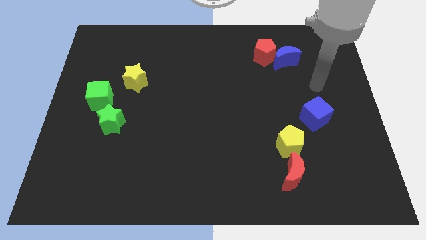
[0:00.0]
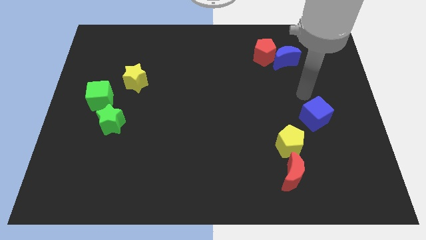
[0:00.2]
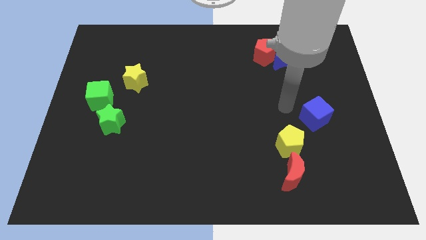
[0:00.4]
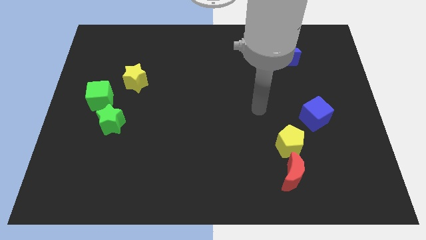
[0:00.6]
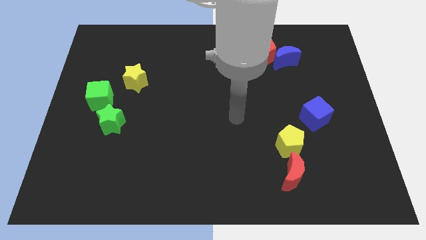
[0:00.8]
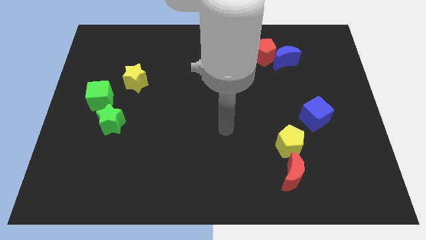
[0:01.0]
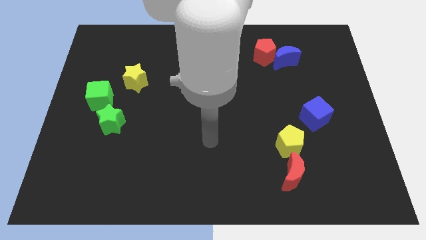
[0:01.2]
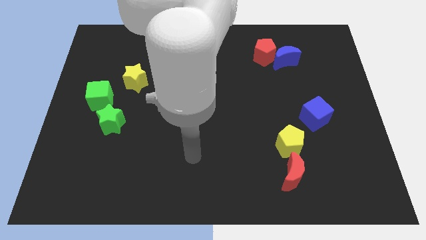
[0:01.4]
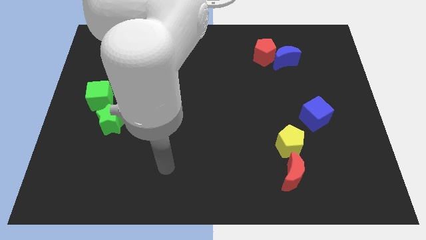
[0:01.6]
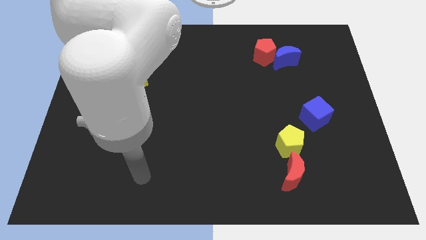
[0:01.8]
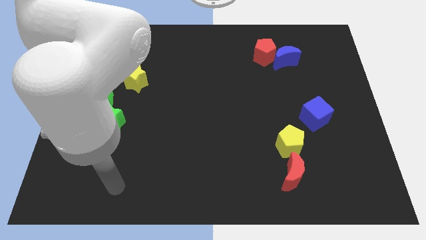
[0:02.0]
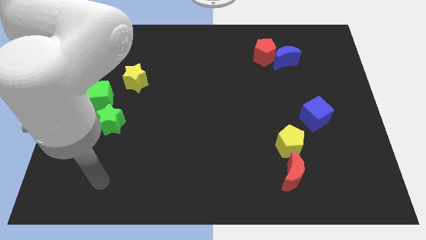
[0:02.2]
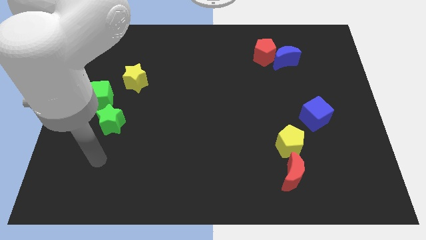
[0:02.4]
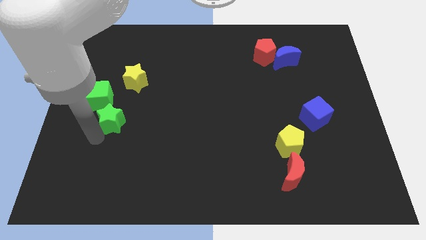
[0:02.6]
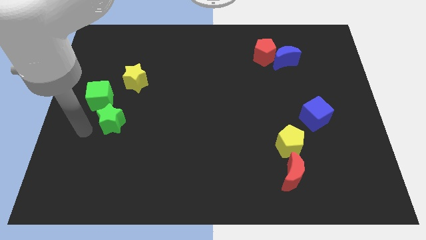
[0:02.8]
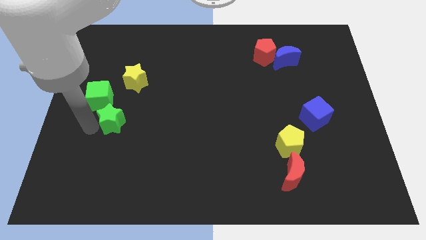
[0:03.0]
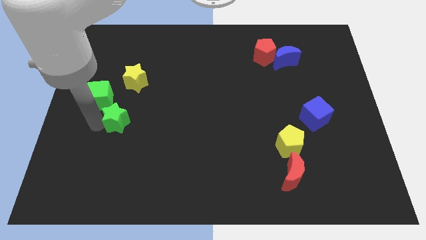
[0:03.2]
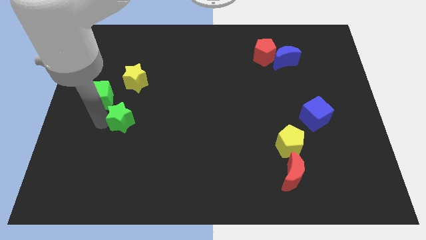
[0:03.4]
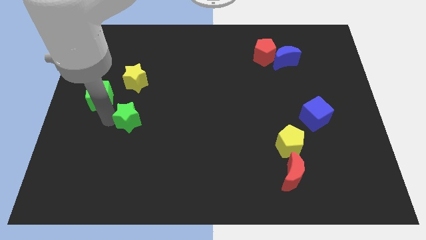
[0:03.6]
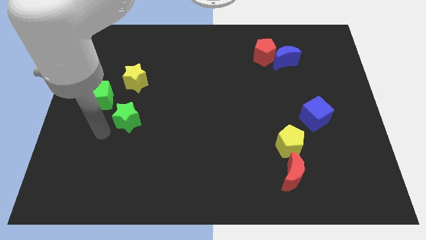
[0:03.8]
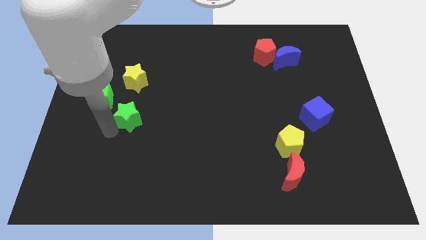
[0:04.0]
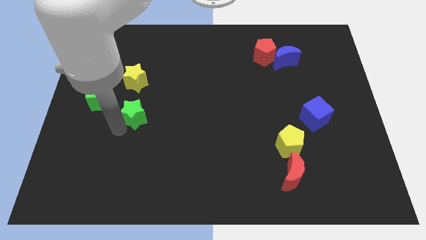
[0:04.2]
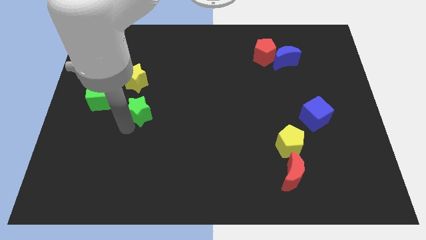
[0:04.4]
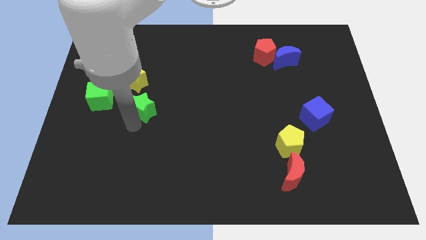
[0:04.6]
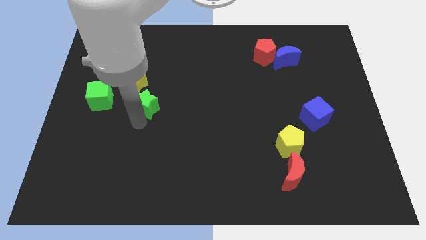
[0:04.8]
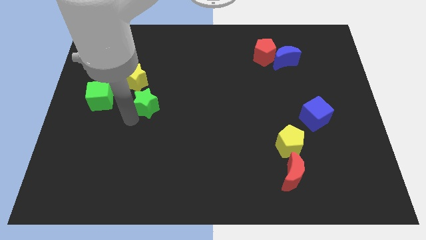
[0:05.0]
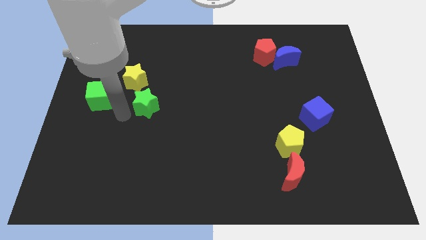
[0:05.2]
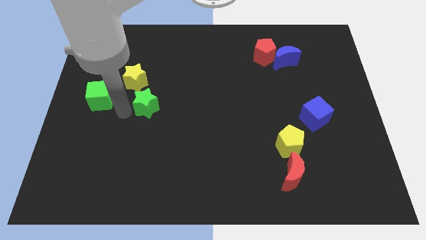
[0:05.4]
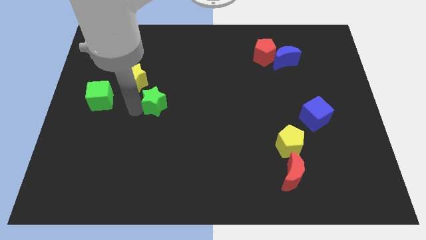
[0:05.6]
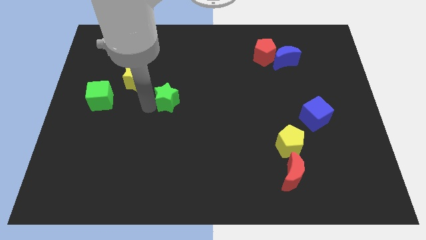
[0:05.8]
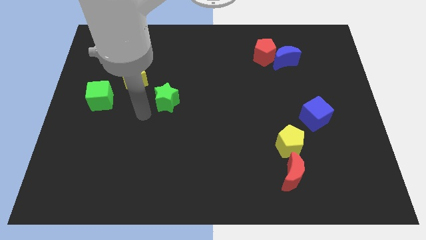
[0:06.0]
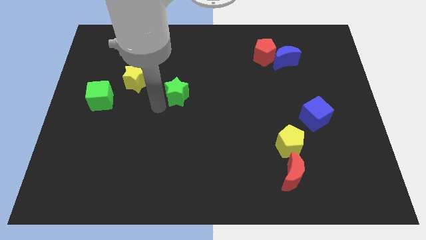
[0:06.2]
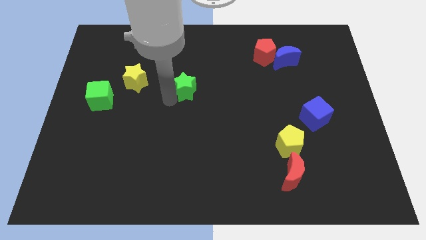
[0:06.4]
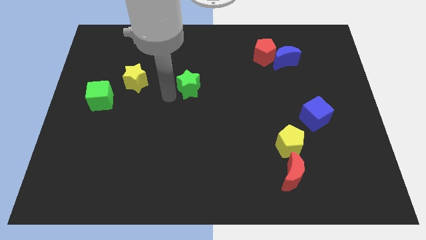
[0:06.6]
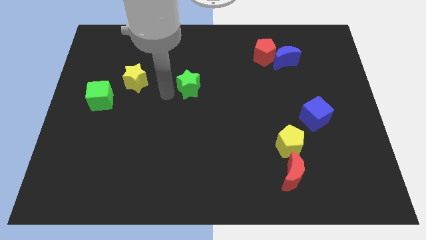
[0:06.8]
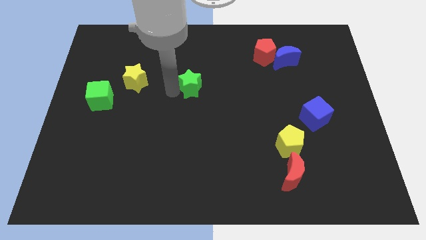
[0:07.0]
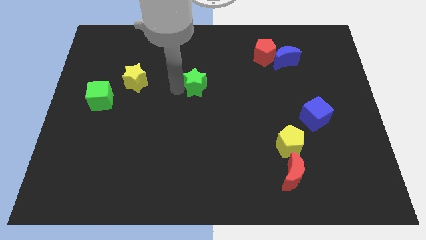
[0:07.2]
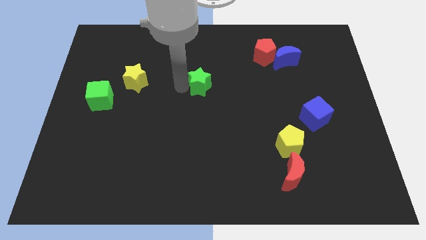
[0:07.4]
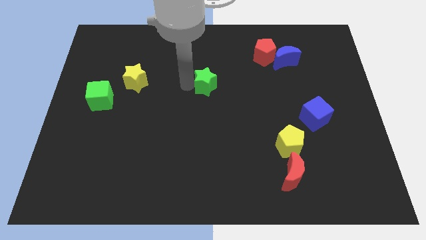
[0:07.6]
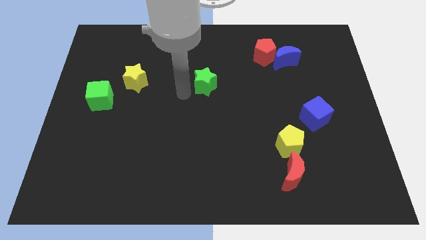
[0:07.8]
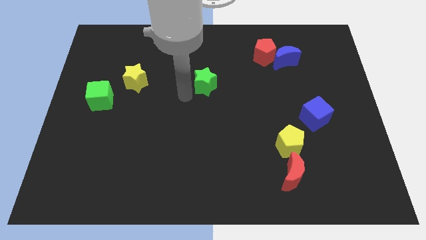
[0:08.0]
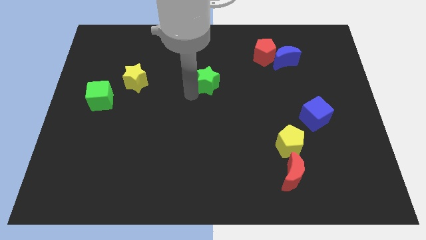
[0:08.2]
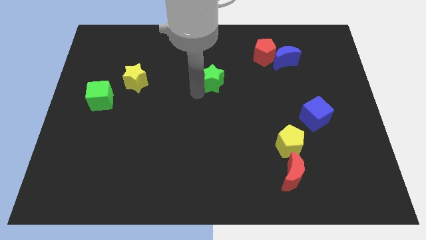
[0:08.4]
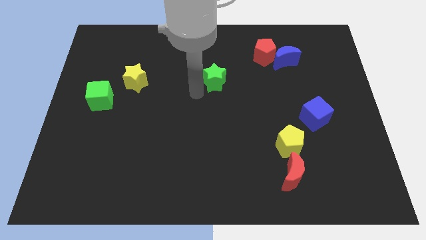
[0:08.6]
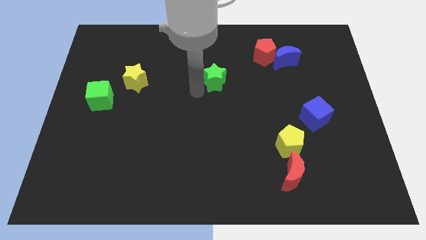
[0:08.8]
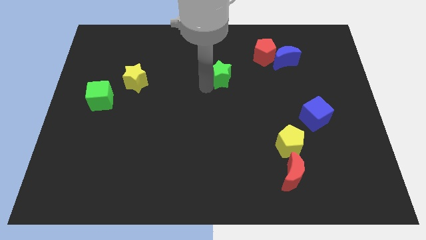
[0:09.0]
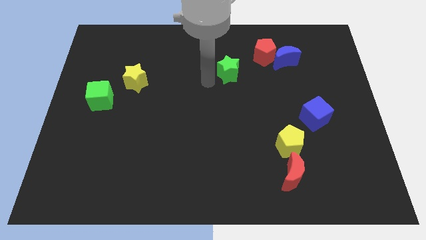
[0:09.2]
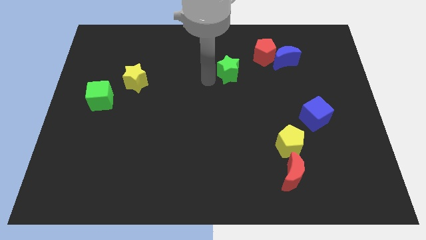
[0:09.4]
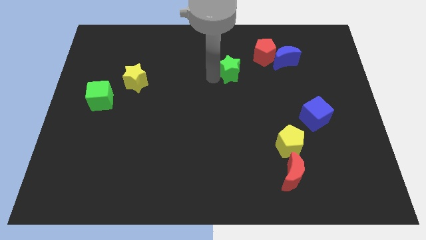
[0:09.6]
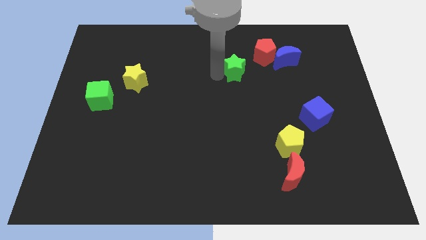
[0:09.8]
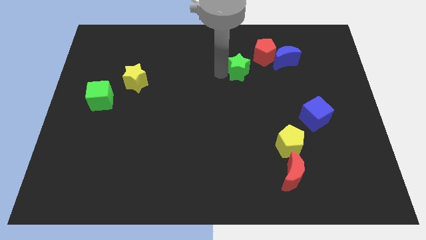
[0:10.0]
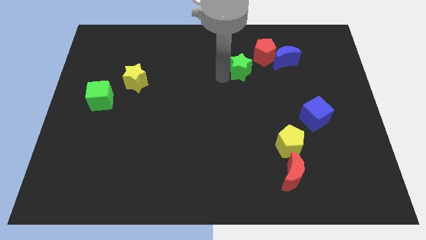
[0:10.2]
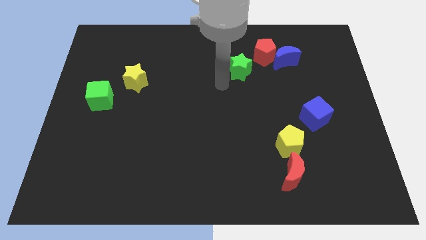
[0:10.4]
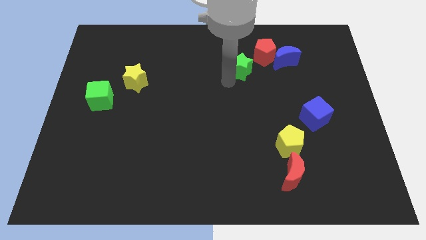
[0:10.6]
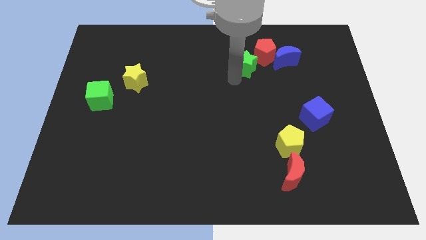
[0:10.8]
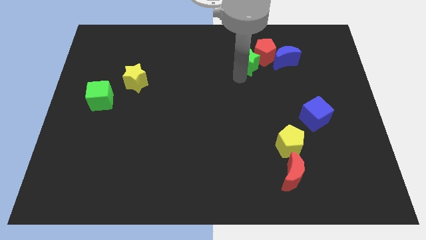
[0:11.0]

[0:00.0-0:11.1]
move the green star towards the red pentagon

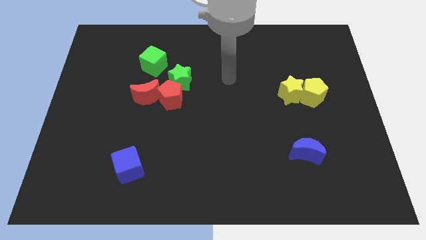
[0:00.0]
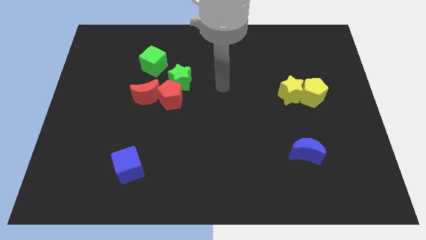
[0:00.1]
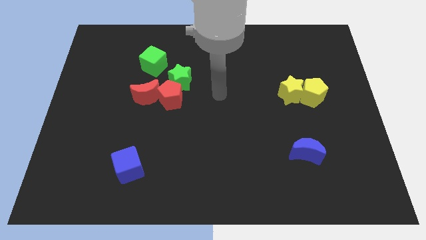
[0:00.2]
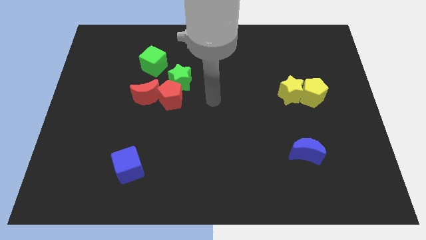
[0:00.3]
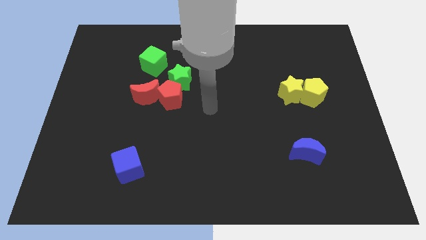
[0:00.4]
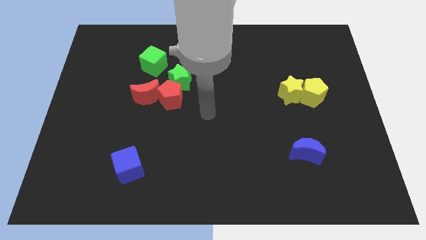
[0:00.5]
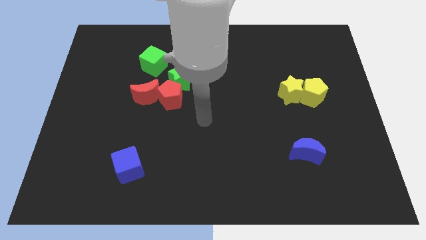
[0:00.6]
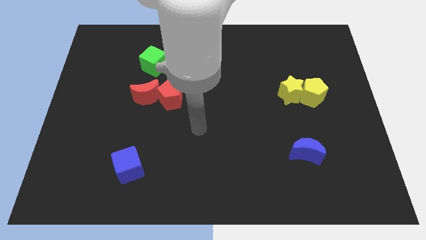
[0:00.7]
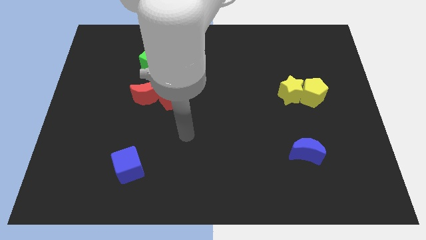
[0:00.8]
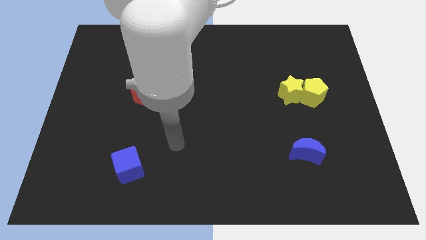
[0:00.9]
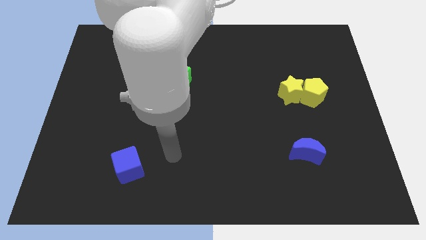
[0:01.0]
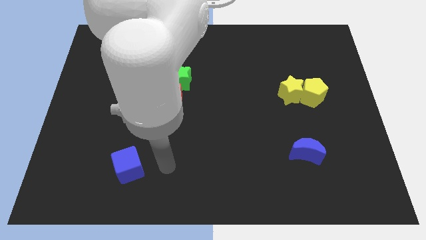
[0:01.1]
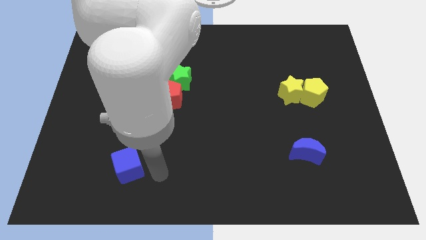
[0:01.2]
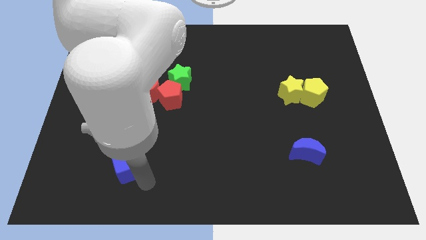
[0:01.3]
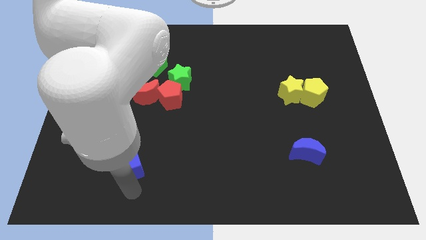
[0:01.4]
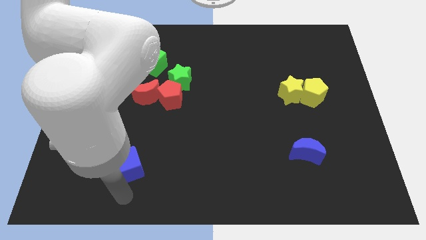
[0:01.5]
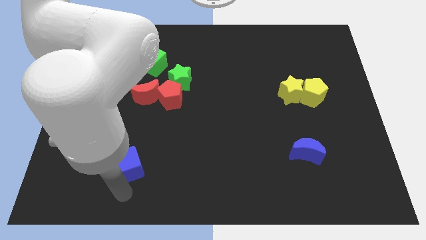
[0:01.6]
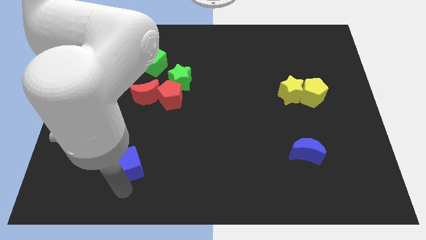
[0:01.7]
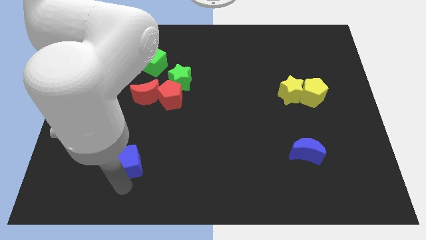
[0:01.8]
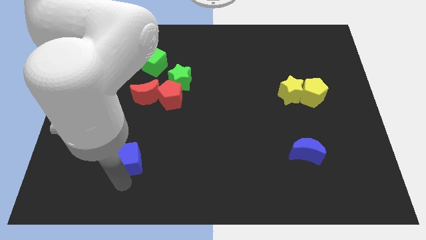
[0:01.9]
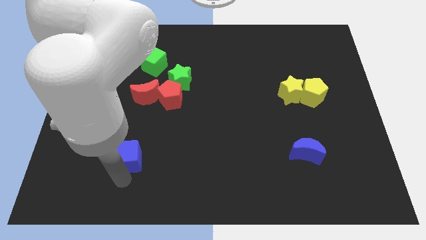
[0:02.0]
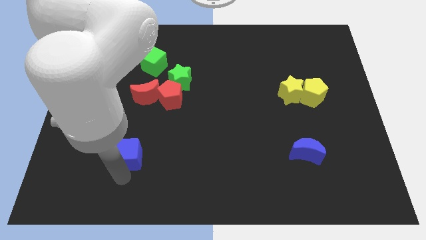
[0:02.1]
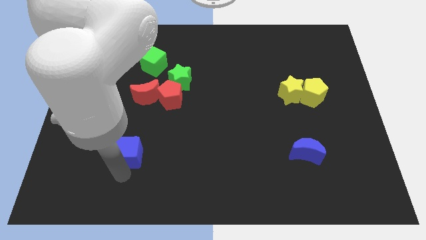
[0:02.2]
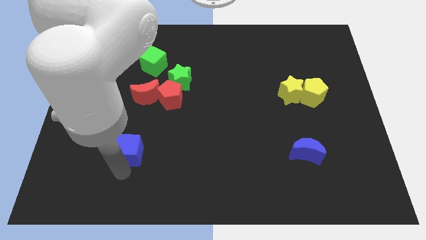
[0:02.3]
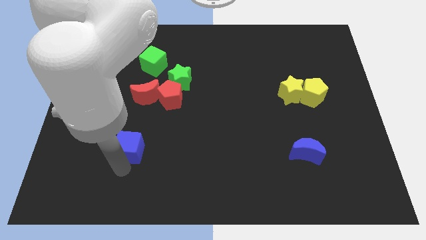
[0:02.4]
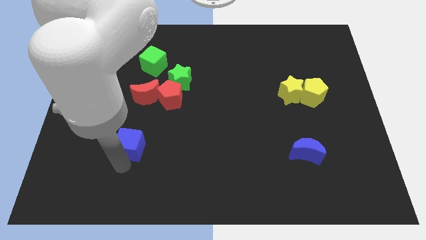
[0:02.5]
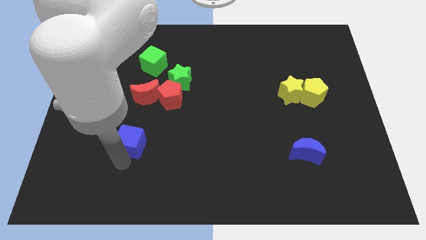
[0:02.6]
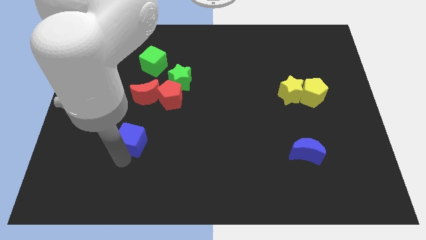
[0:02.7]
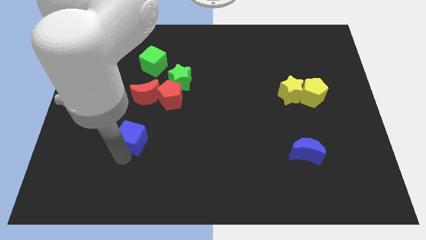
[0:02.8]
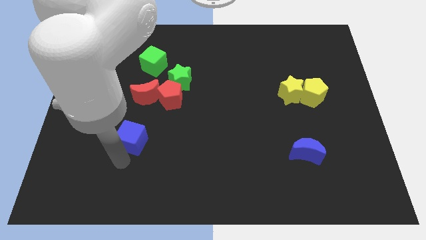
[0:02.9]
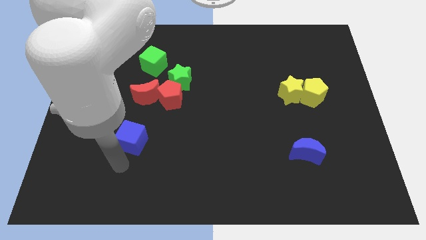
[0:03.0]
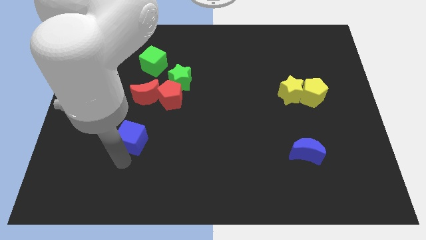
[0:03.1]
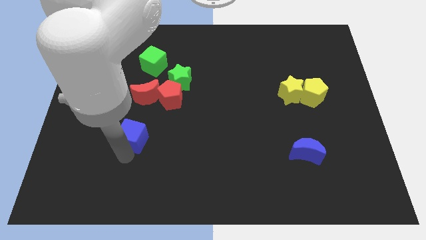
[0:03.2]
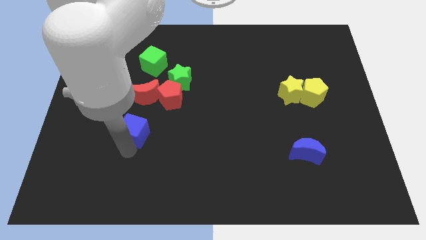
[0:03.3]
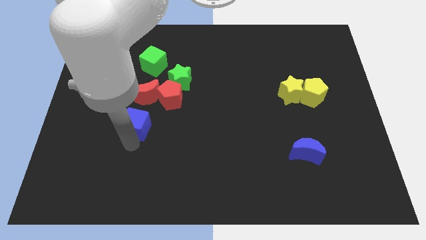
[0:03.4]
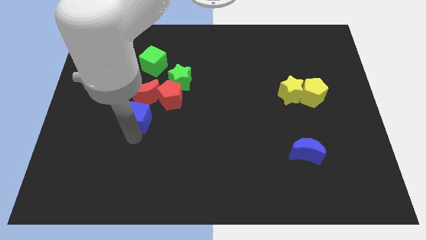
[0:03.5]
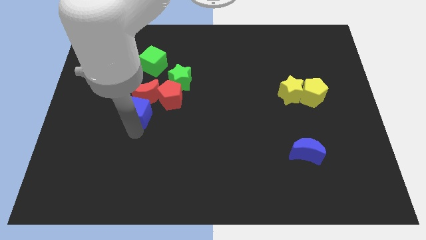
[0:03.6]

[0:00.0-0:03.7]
push the blue cube towards the red moon
